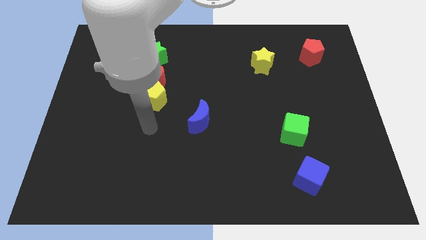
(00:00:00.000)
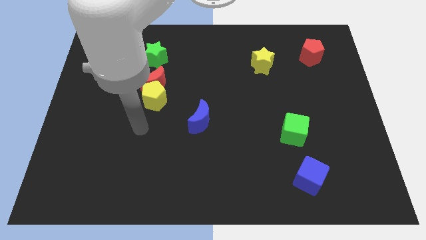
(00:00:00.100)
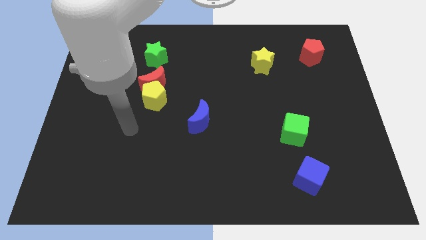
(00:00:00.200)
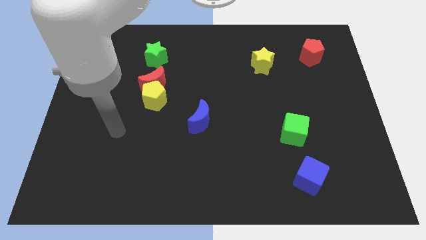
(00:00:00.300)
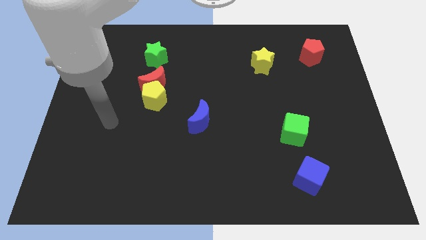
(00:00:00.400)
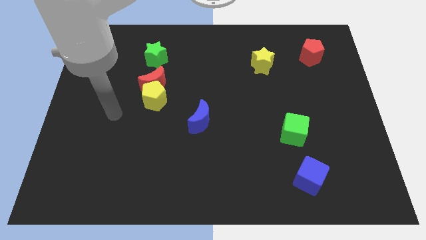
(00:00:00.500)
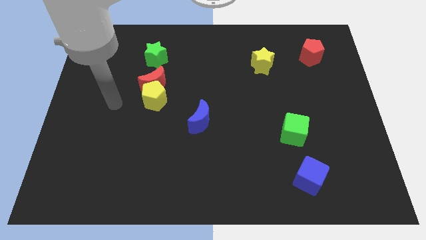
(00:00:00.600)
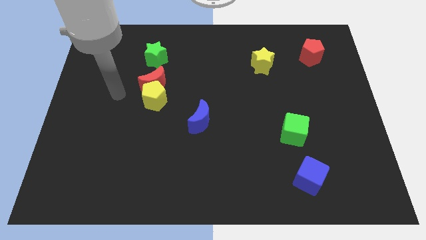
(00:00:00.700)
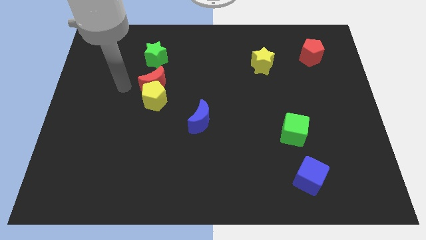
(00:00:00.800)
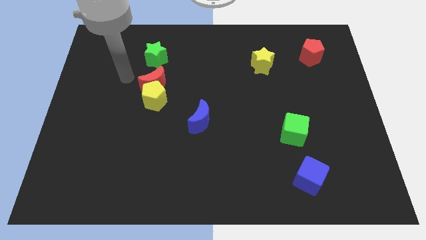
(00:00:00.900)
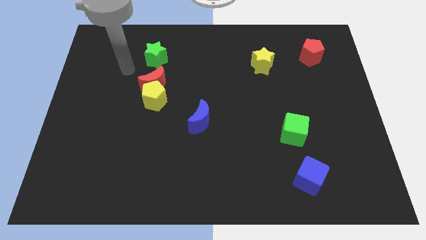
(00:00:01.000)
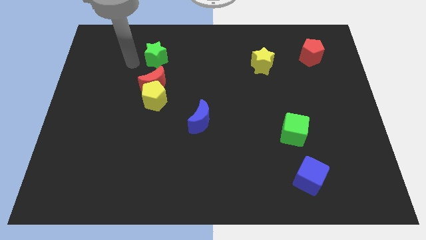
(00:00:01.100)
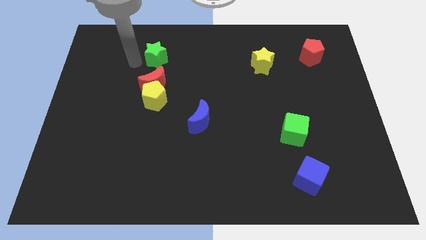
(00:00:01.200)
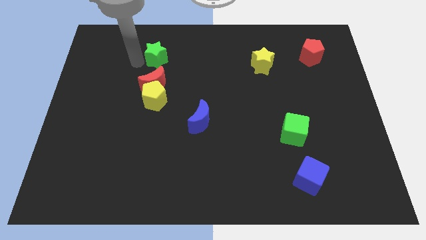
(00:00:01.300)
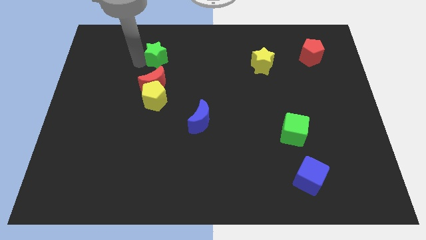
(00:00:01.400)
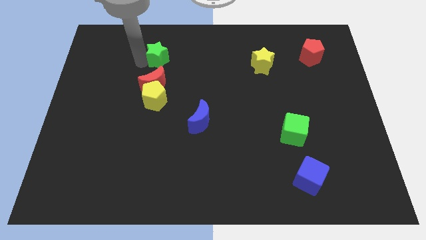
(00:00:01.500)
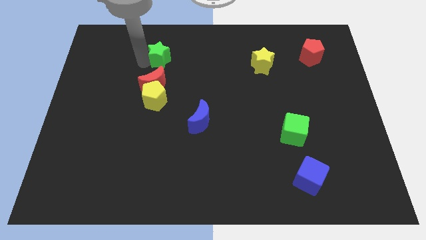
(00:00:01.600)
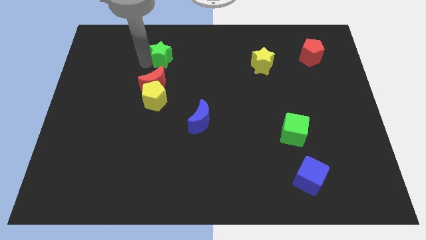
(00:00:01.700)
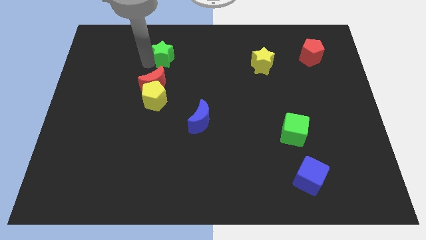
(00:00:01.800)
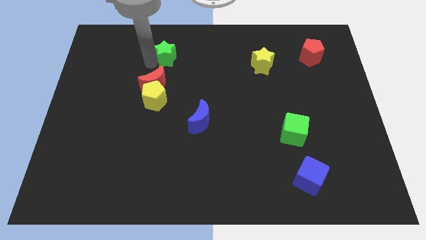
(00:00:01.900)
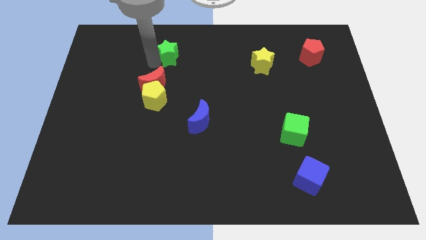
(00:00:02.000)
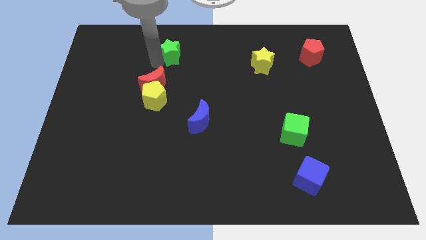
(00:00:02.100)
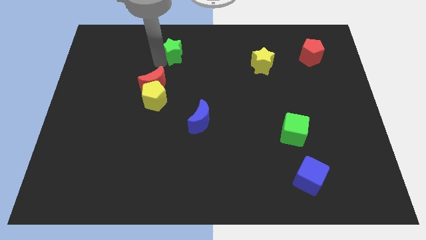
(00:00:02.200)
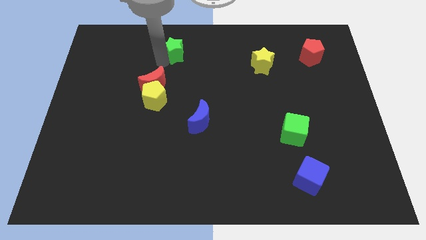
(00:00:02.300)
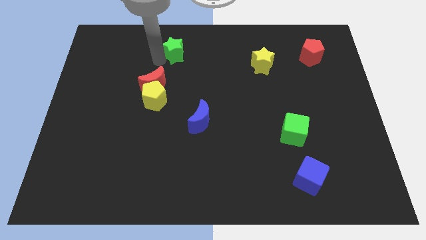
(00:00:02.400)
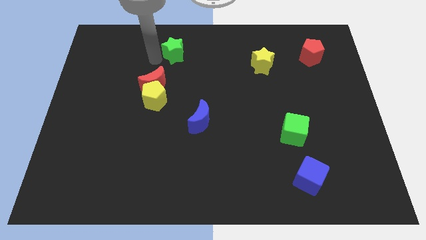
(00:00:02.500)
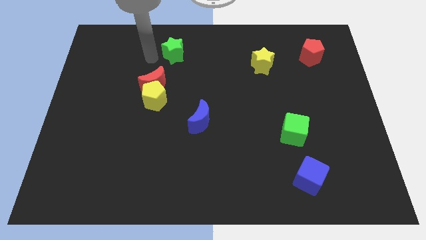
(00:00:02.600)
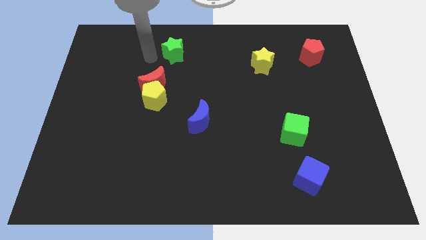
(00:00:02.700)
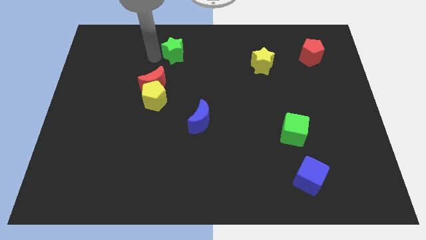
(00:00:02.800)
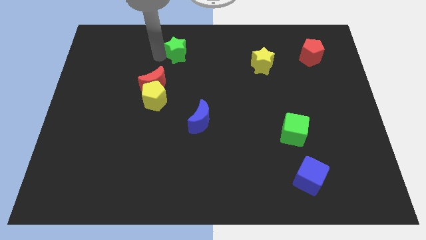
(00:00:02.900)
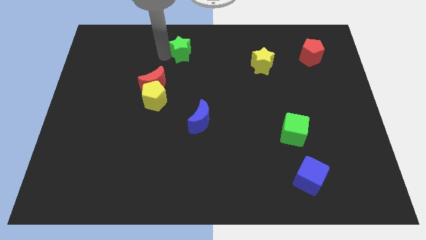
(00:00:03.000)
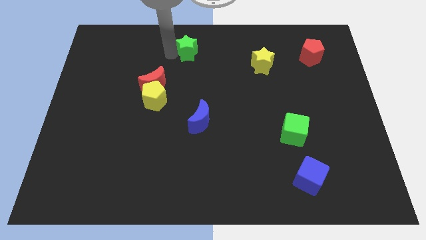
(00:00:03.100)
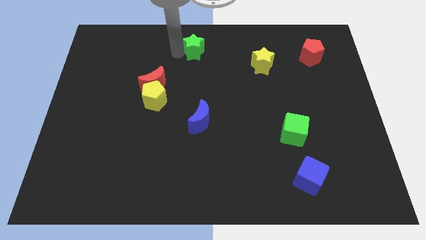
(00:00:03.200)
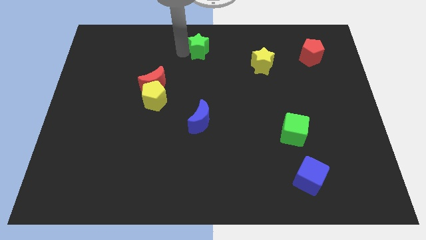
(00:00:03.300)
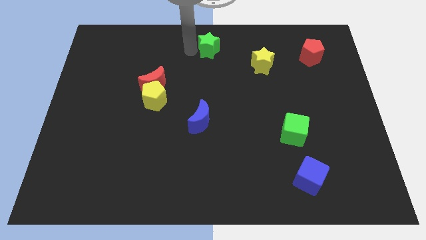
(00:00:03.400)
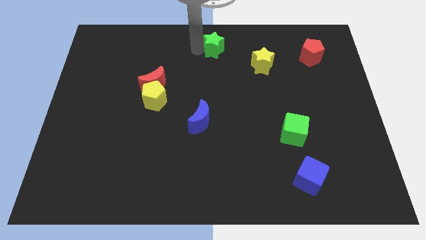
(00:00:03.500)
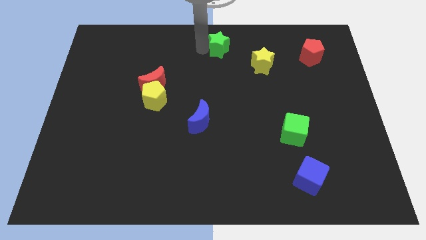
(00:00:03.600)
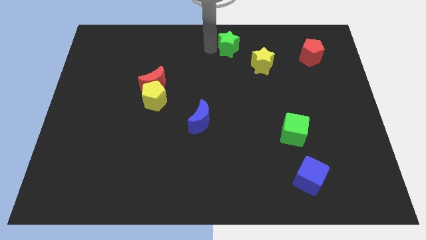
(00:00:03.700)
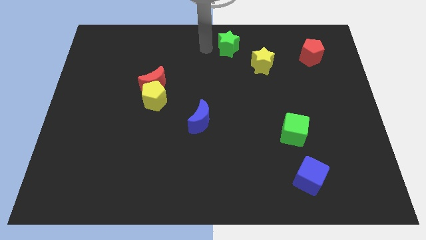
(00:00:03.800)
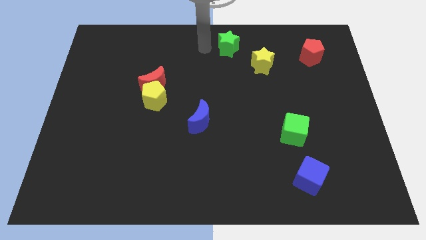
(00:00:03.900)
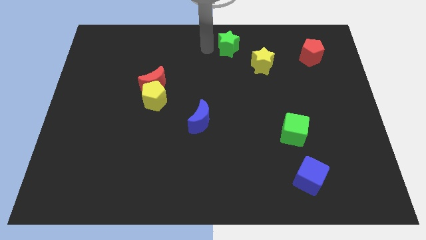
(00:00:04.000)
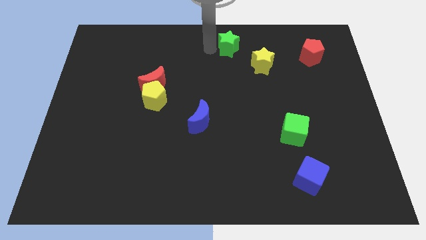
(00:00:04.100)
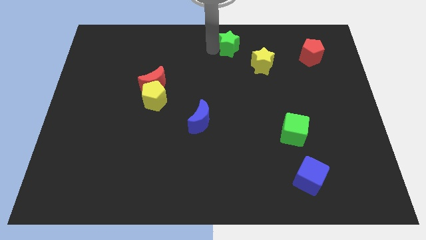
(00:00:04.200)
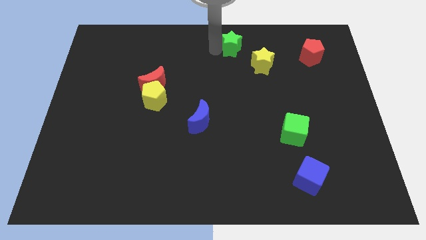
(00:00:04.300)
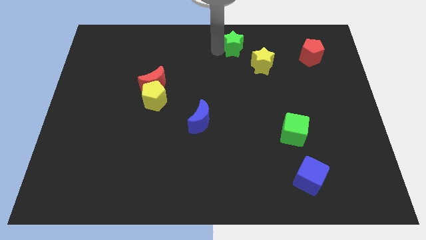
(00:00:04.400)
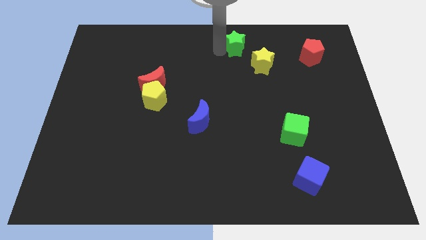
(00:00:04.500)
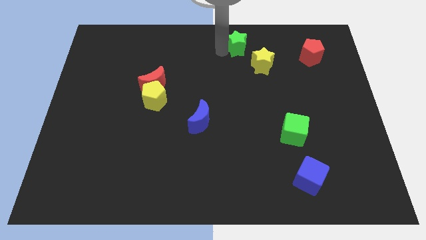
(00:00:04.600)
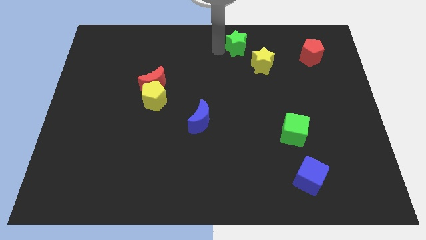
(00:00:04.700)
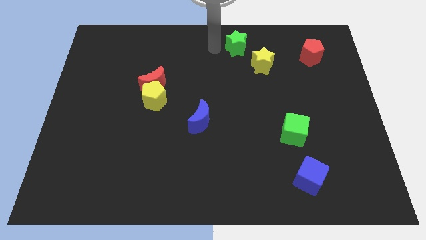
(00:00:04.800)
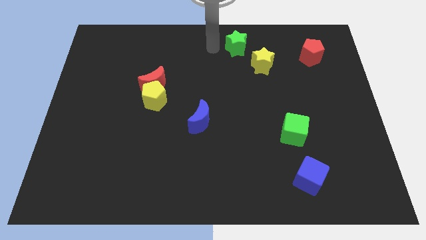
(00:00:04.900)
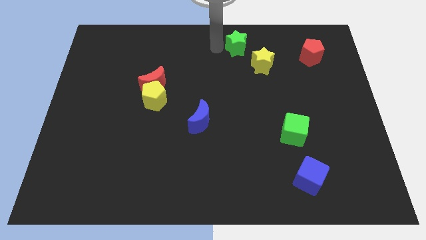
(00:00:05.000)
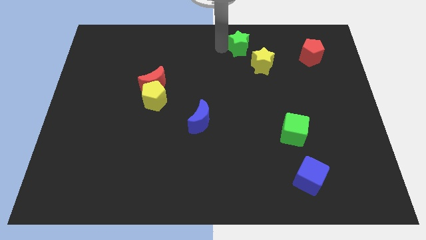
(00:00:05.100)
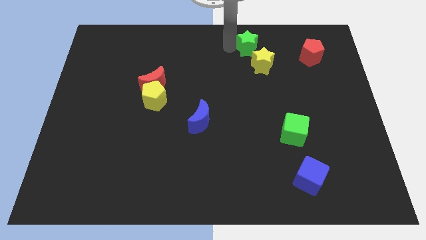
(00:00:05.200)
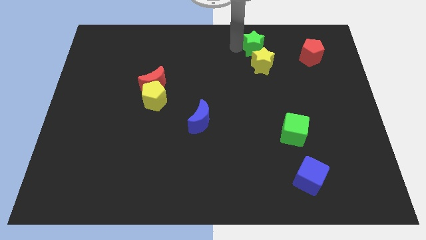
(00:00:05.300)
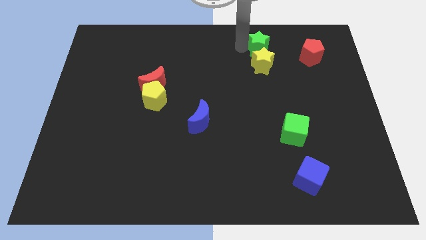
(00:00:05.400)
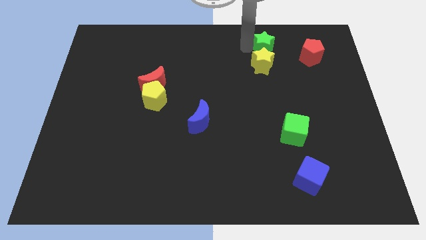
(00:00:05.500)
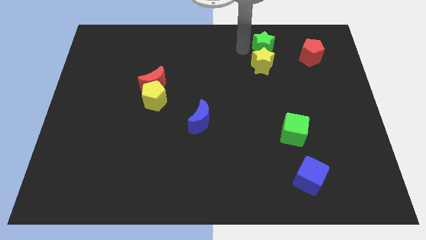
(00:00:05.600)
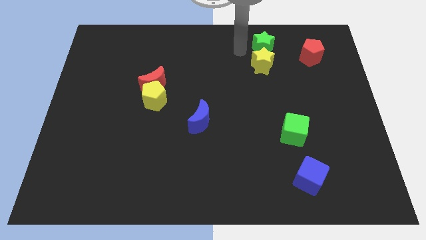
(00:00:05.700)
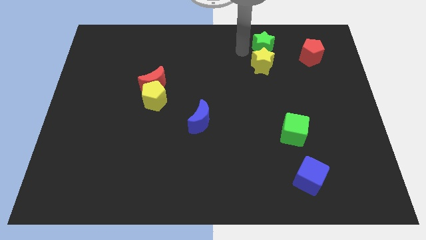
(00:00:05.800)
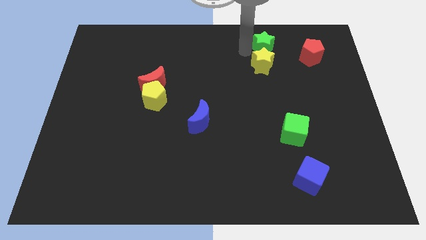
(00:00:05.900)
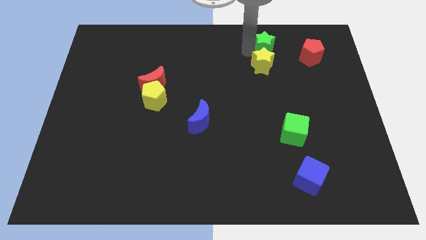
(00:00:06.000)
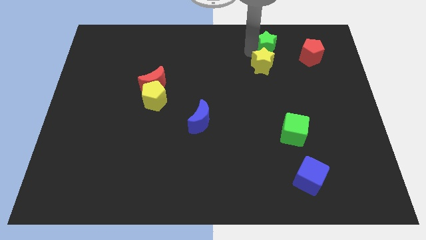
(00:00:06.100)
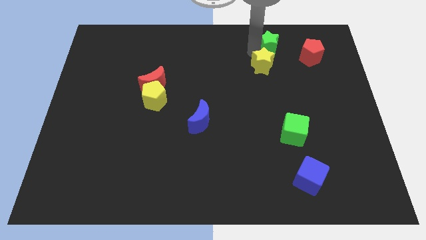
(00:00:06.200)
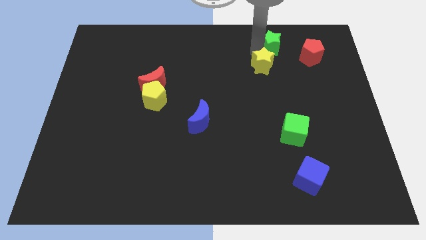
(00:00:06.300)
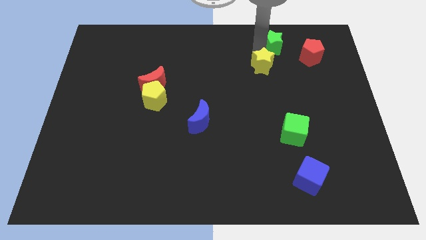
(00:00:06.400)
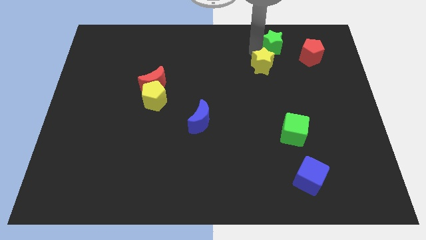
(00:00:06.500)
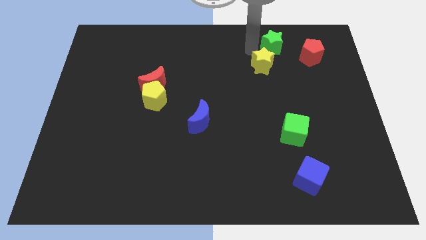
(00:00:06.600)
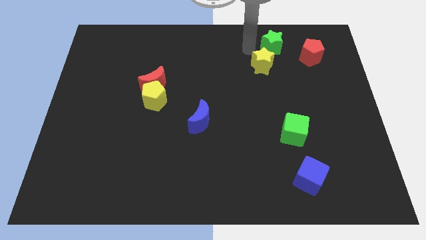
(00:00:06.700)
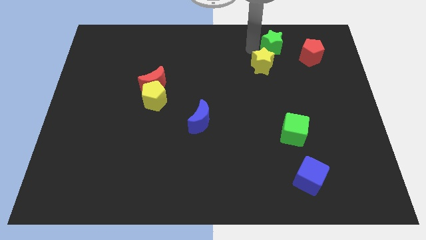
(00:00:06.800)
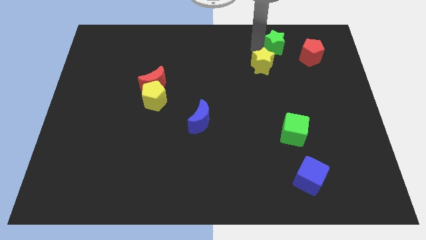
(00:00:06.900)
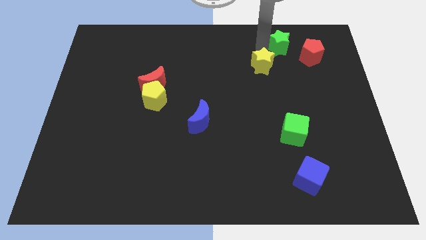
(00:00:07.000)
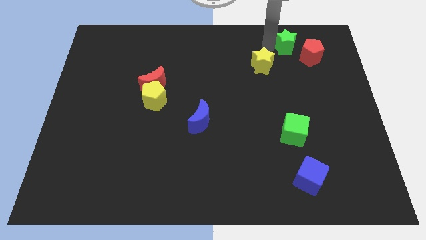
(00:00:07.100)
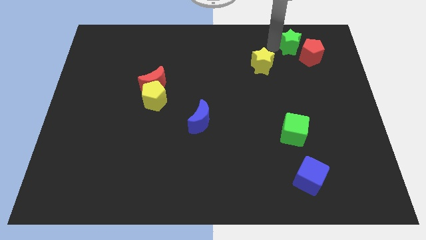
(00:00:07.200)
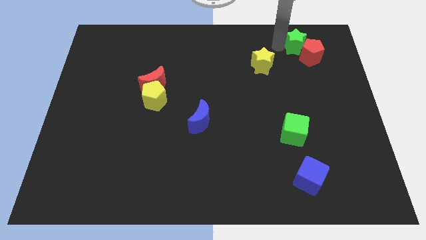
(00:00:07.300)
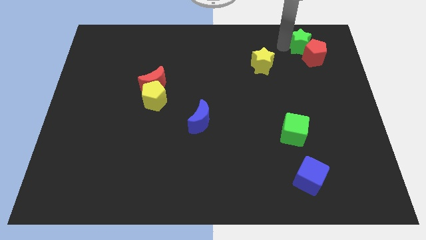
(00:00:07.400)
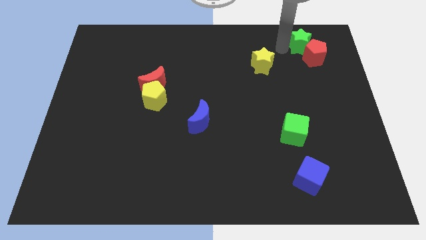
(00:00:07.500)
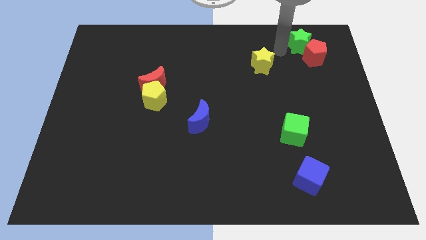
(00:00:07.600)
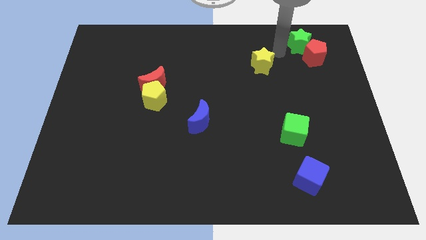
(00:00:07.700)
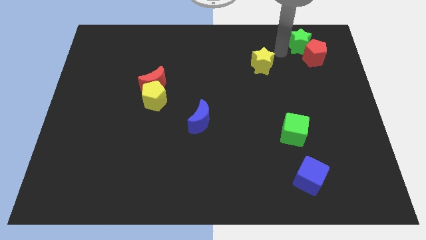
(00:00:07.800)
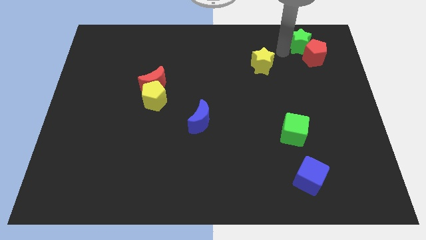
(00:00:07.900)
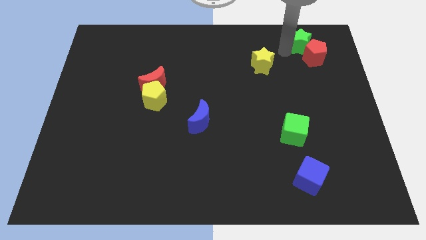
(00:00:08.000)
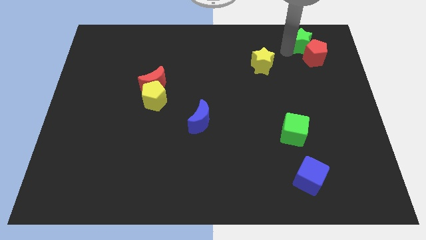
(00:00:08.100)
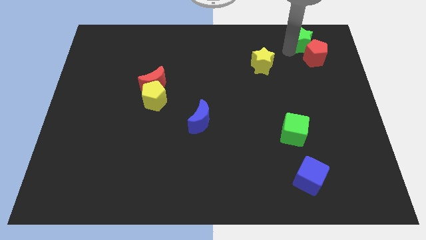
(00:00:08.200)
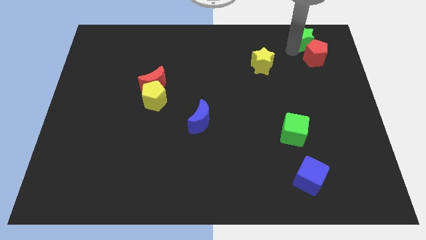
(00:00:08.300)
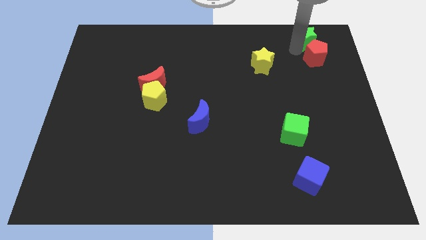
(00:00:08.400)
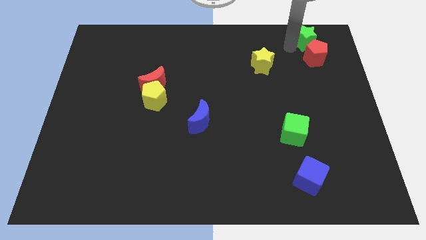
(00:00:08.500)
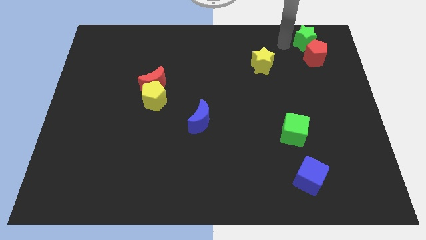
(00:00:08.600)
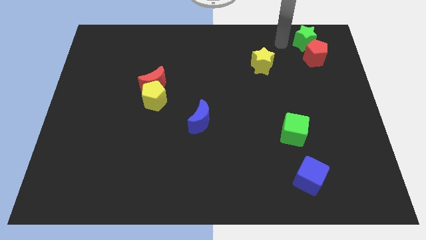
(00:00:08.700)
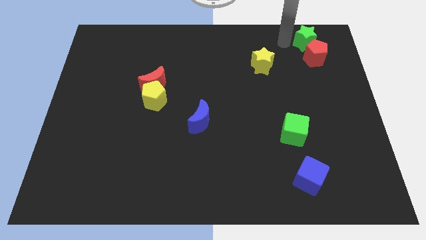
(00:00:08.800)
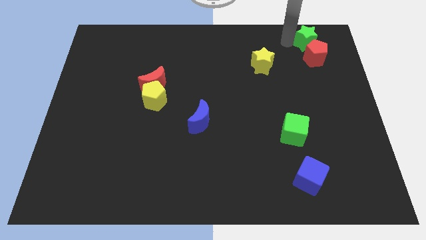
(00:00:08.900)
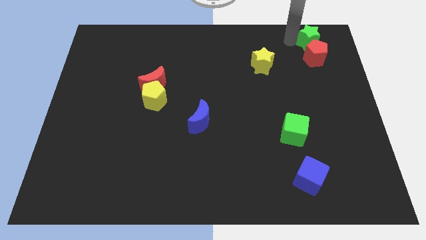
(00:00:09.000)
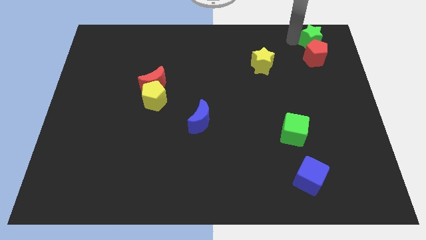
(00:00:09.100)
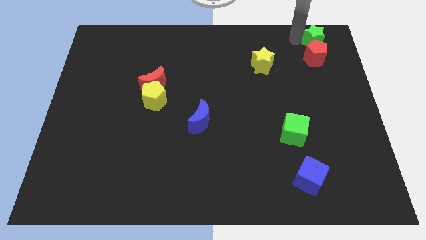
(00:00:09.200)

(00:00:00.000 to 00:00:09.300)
move the green star to the top right corner
